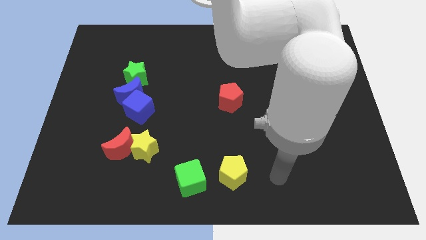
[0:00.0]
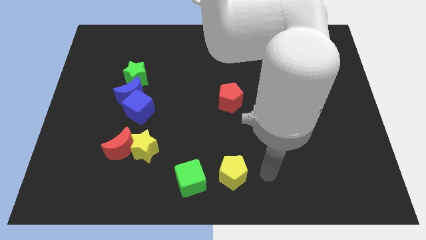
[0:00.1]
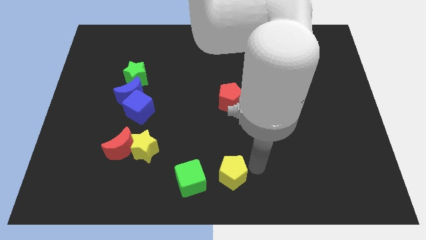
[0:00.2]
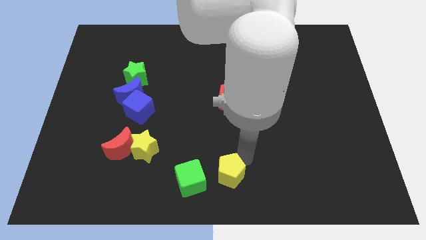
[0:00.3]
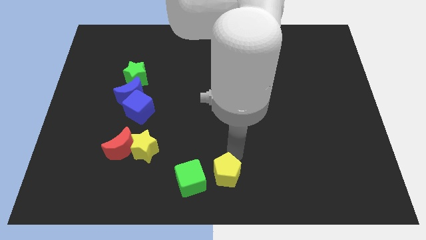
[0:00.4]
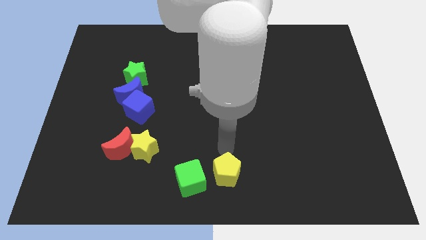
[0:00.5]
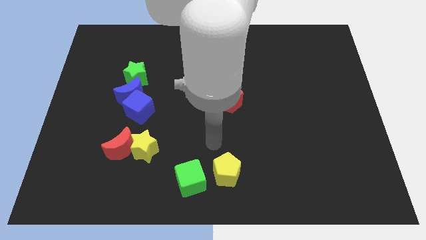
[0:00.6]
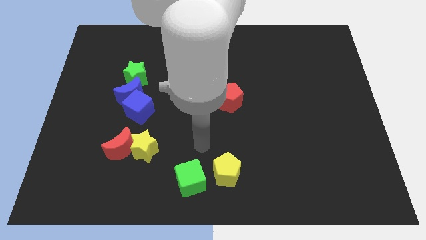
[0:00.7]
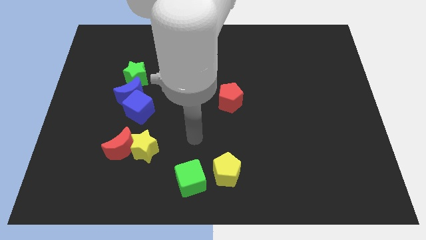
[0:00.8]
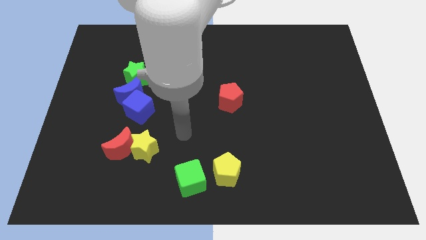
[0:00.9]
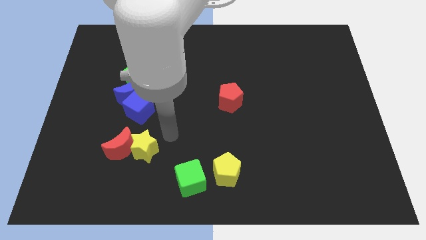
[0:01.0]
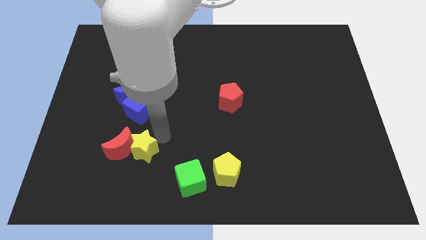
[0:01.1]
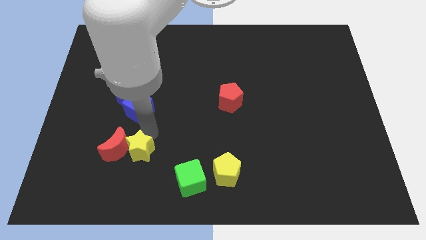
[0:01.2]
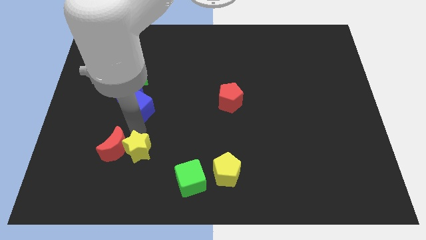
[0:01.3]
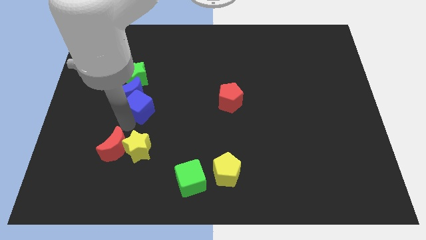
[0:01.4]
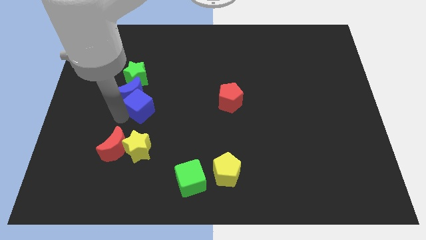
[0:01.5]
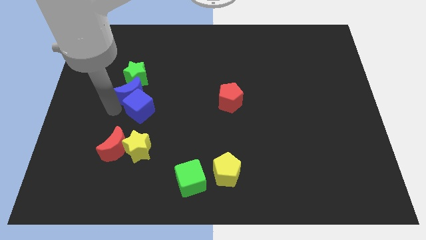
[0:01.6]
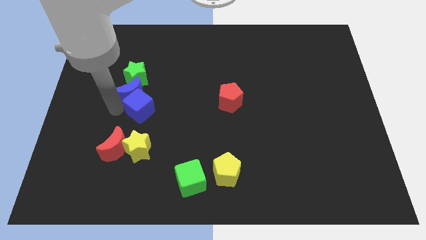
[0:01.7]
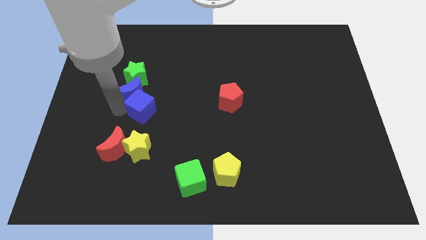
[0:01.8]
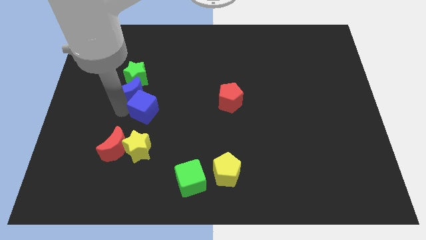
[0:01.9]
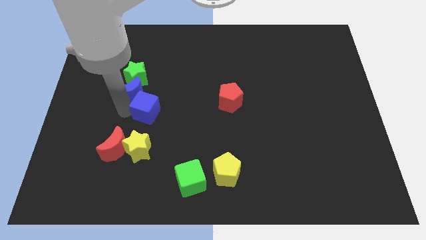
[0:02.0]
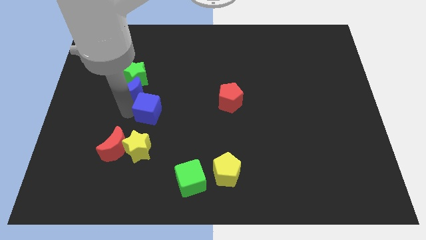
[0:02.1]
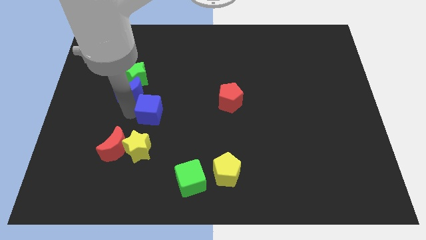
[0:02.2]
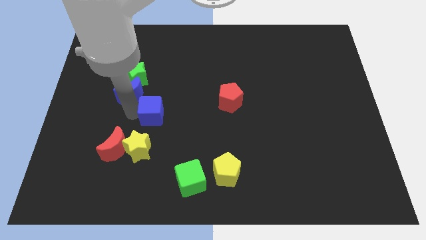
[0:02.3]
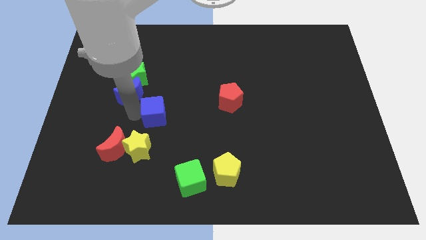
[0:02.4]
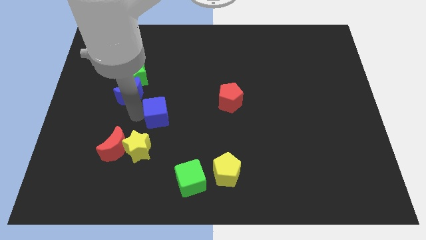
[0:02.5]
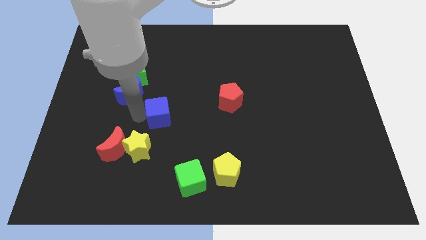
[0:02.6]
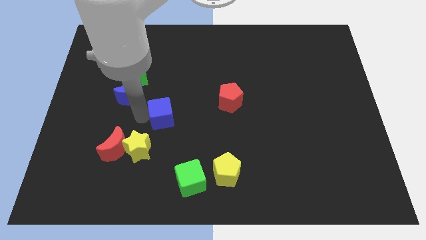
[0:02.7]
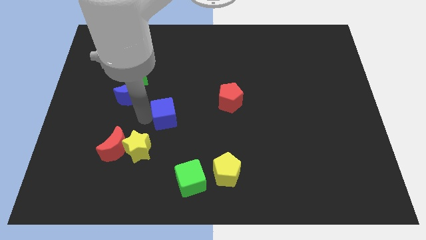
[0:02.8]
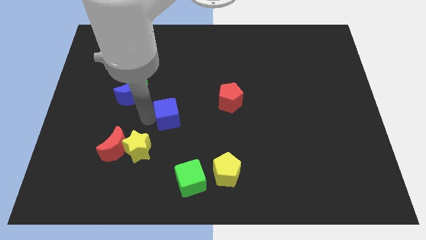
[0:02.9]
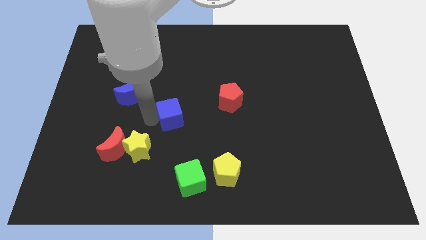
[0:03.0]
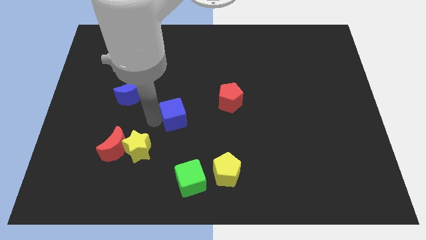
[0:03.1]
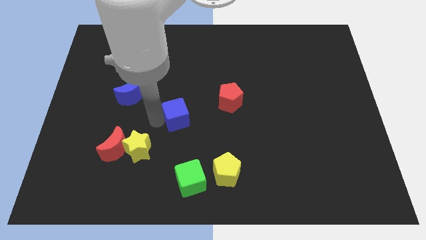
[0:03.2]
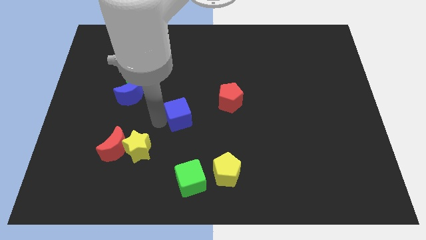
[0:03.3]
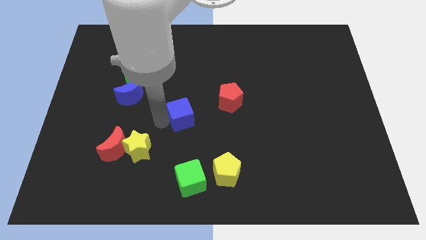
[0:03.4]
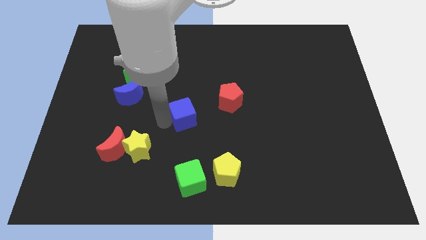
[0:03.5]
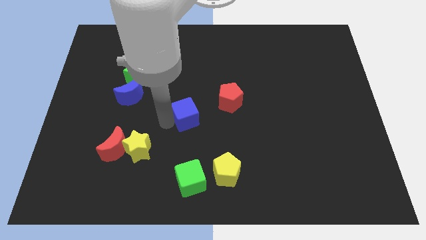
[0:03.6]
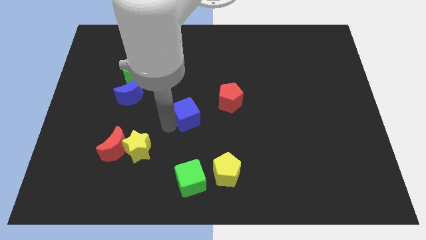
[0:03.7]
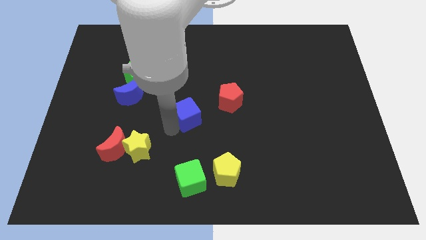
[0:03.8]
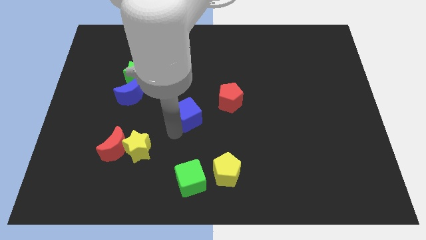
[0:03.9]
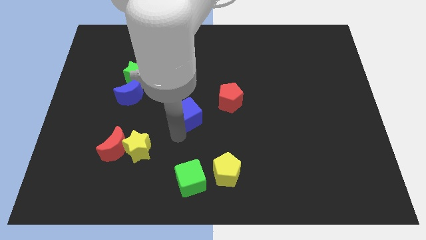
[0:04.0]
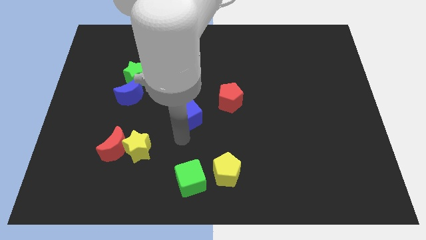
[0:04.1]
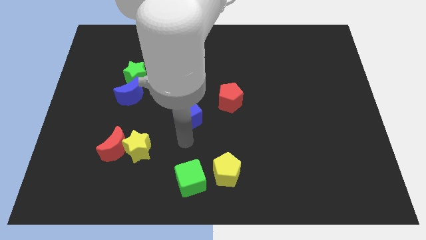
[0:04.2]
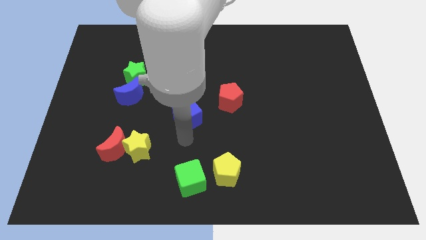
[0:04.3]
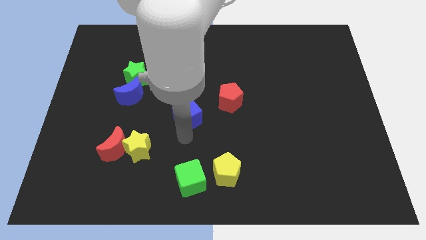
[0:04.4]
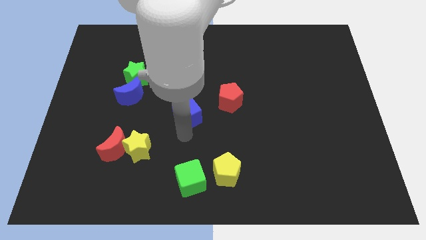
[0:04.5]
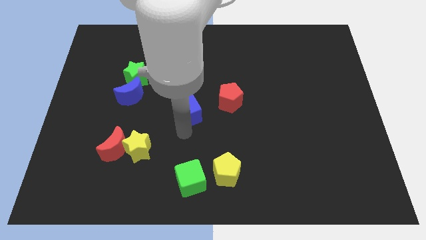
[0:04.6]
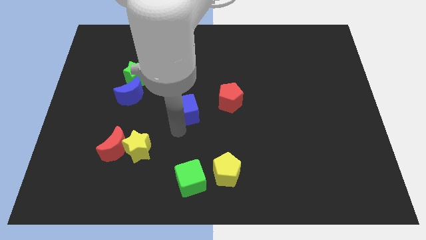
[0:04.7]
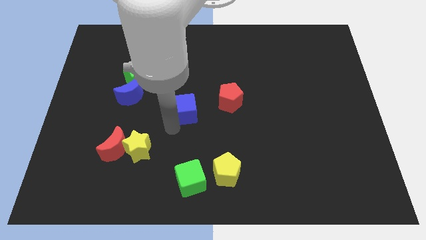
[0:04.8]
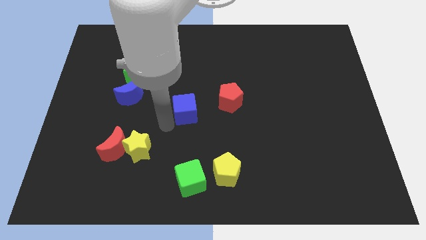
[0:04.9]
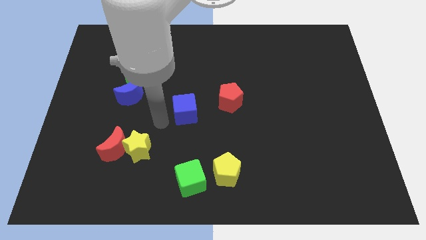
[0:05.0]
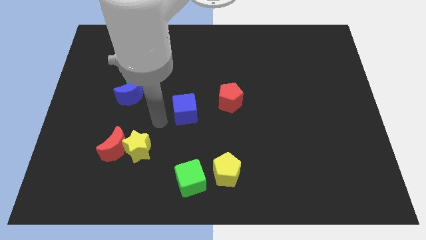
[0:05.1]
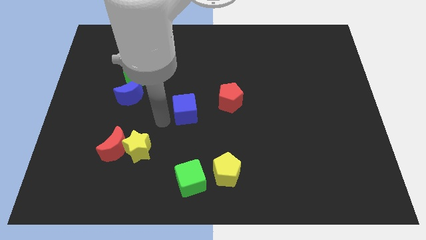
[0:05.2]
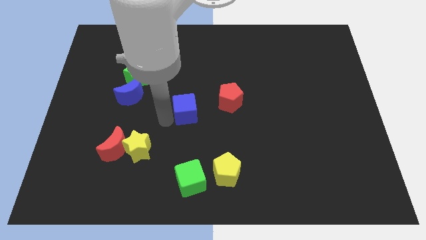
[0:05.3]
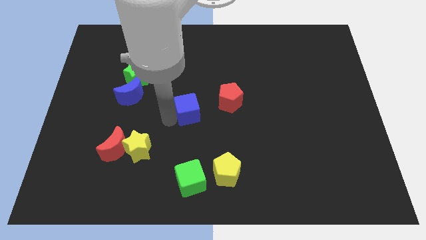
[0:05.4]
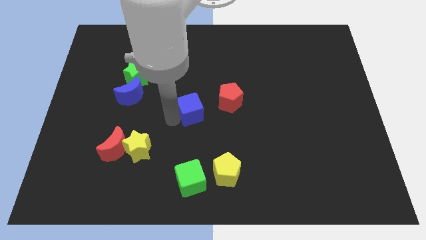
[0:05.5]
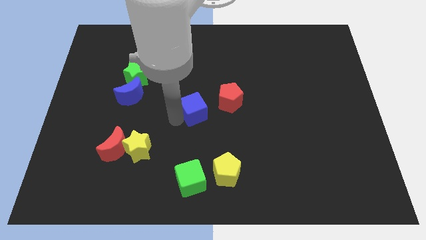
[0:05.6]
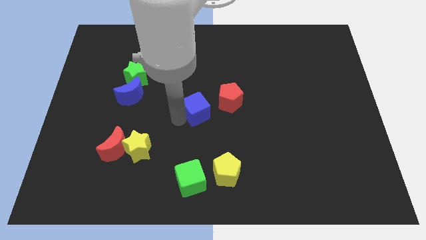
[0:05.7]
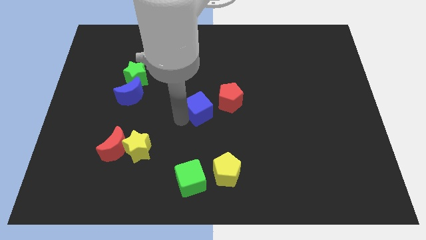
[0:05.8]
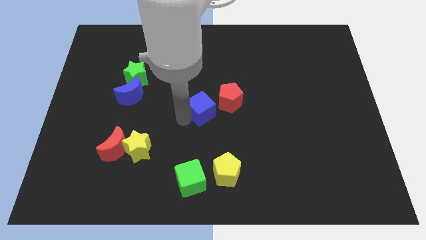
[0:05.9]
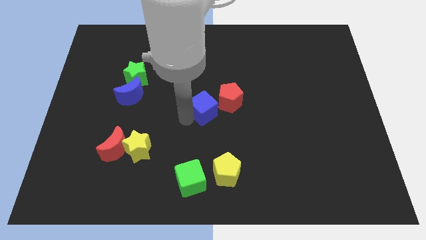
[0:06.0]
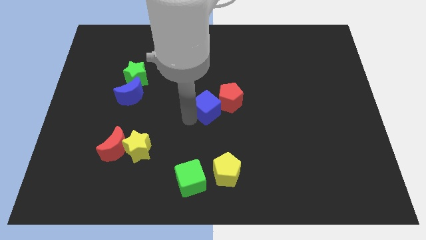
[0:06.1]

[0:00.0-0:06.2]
put the blue cube towards the red pentagon
